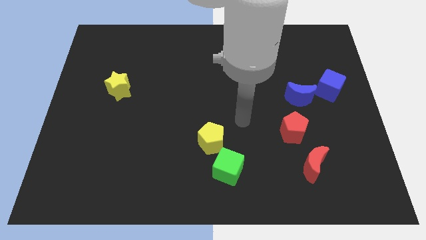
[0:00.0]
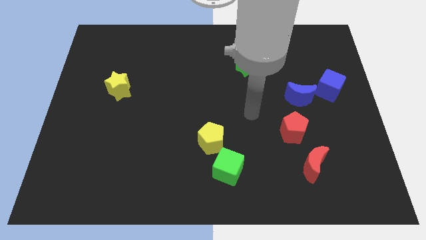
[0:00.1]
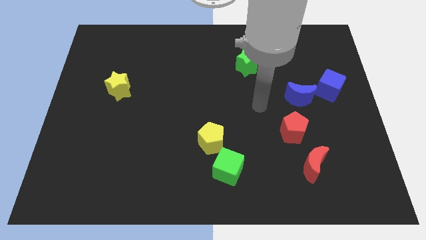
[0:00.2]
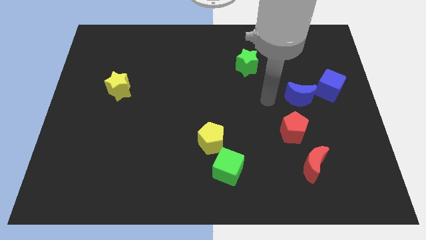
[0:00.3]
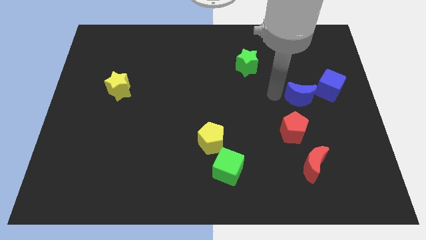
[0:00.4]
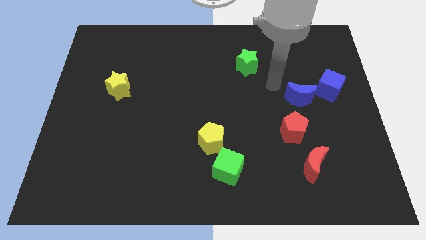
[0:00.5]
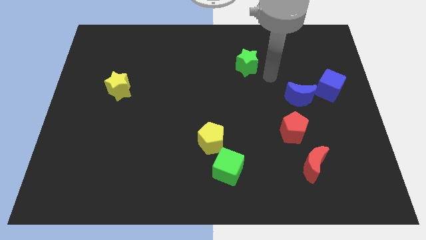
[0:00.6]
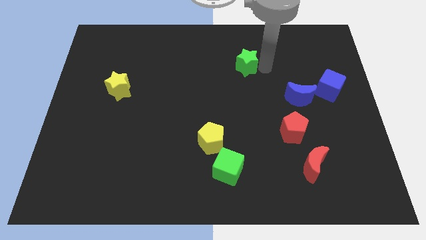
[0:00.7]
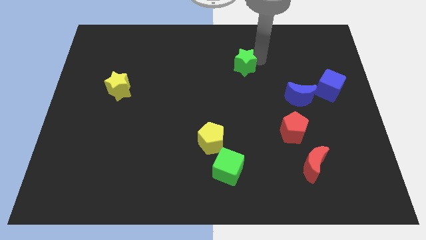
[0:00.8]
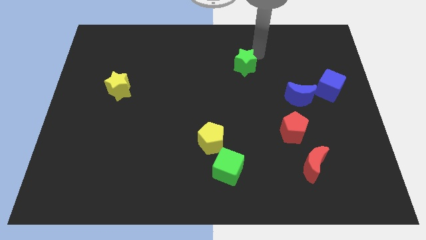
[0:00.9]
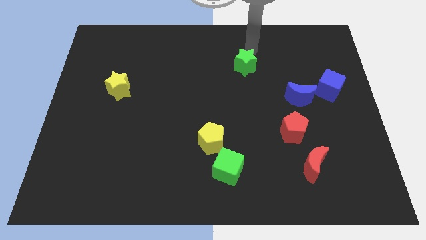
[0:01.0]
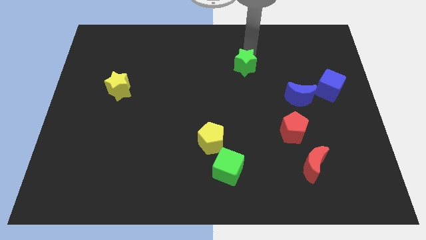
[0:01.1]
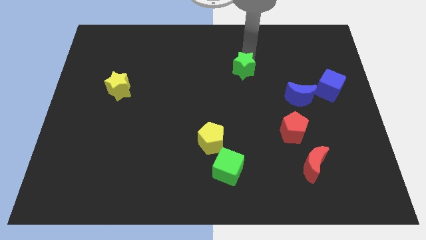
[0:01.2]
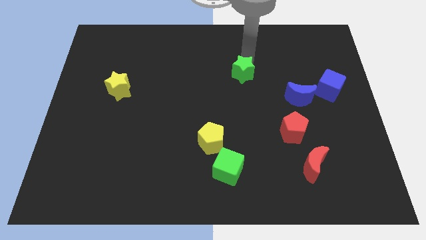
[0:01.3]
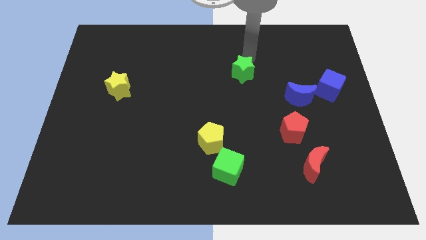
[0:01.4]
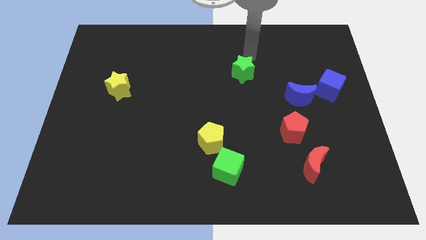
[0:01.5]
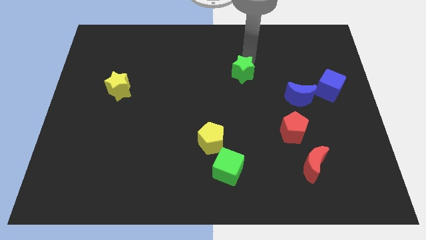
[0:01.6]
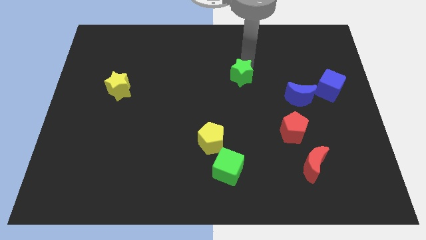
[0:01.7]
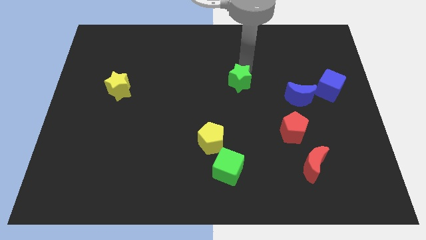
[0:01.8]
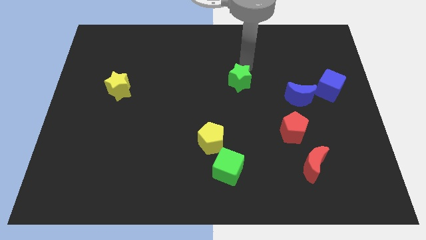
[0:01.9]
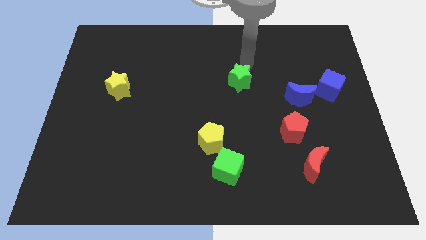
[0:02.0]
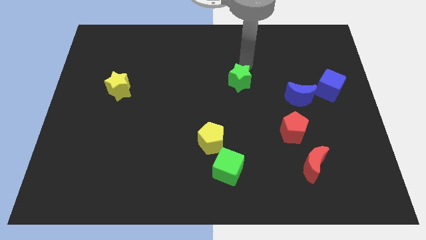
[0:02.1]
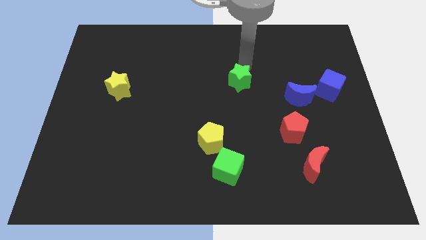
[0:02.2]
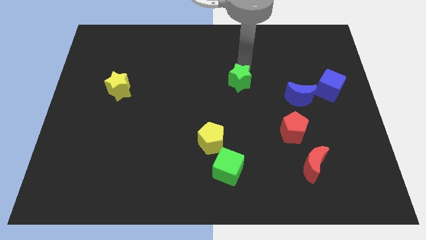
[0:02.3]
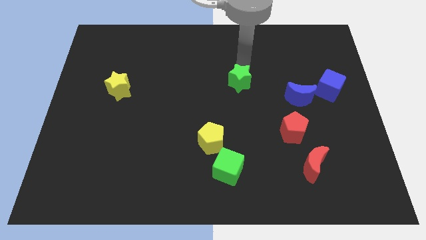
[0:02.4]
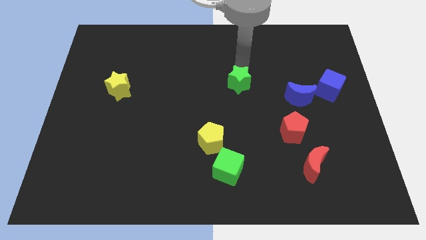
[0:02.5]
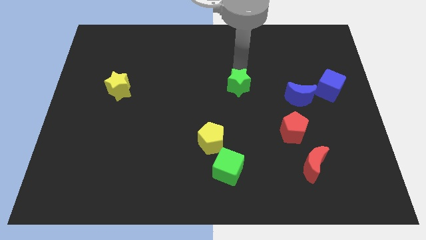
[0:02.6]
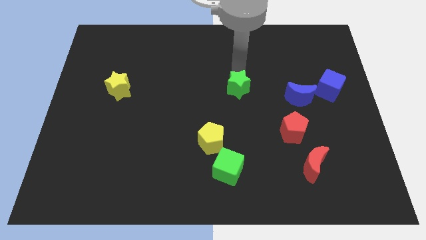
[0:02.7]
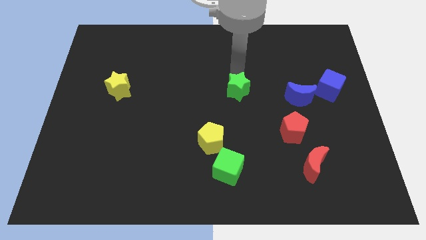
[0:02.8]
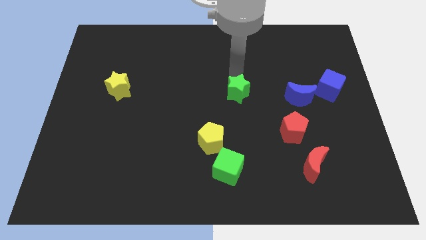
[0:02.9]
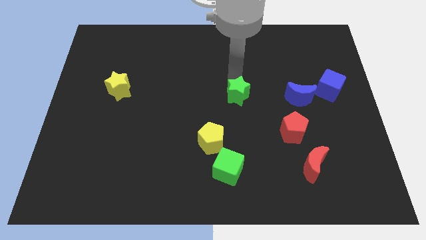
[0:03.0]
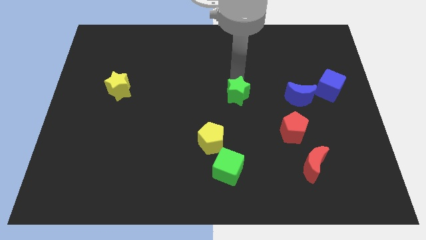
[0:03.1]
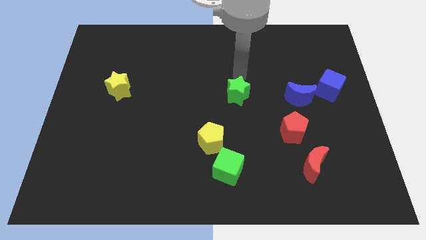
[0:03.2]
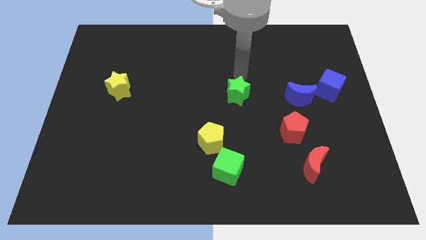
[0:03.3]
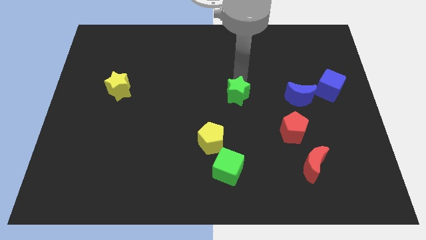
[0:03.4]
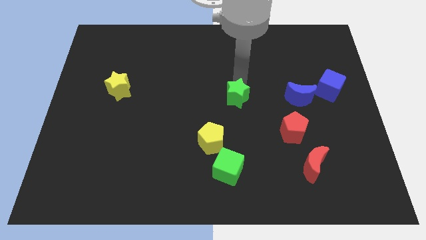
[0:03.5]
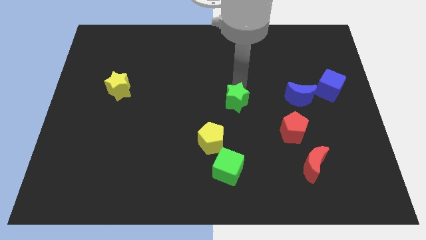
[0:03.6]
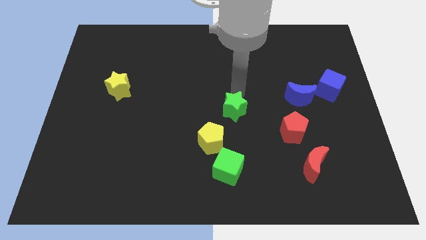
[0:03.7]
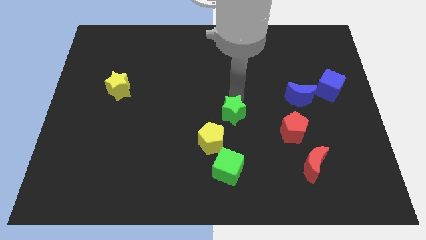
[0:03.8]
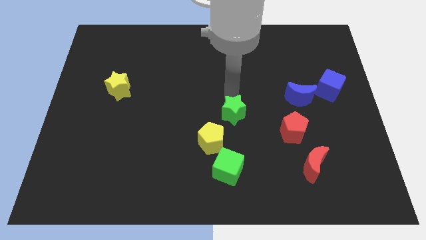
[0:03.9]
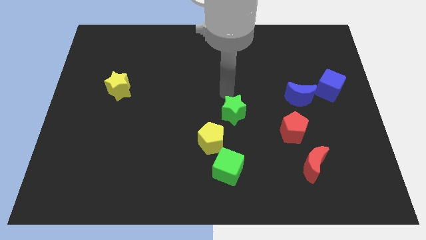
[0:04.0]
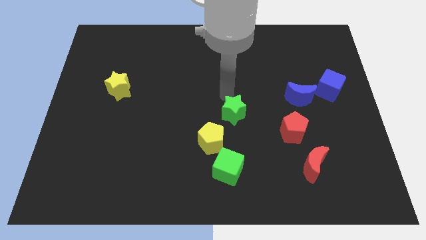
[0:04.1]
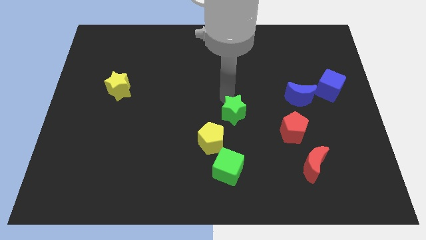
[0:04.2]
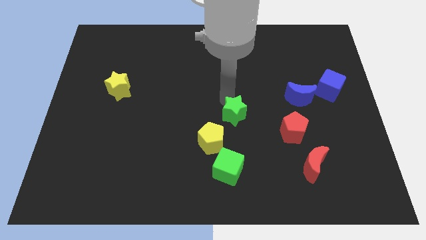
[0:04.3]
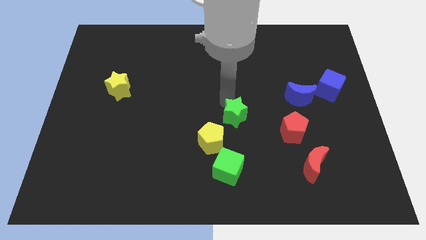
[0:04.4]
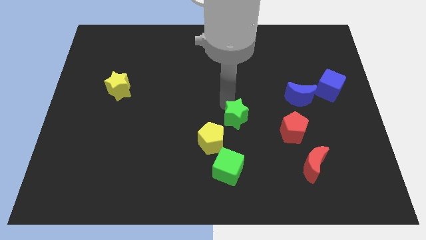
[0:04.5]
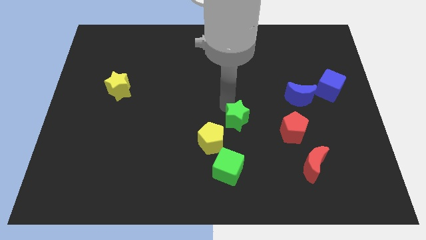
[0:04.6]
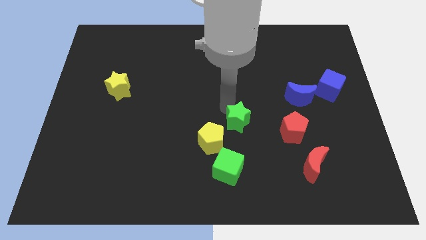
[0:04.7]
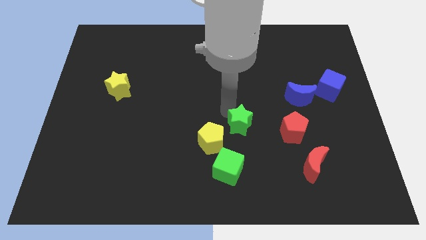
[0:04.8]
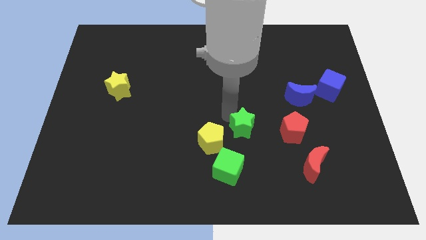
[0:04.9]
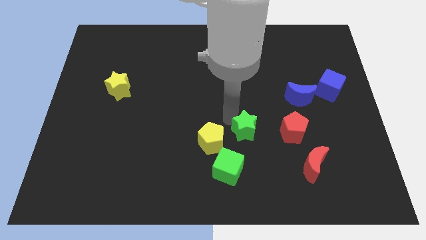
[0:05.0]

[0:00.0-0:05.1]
slide the green star downwards

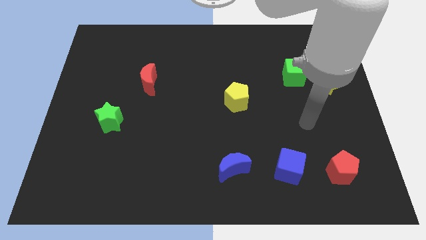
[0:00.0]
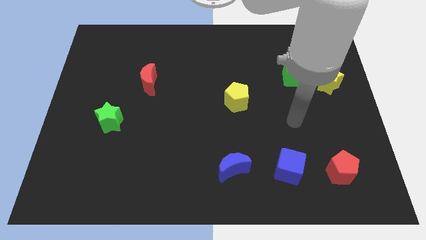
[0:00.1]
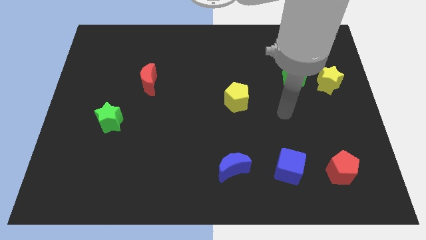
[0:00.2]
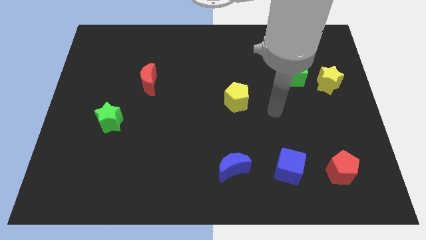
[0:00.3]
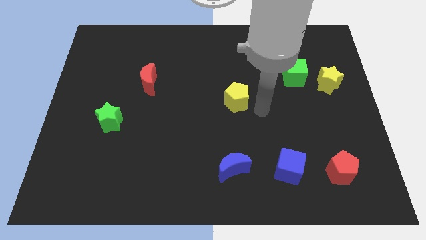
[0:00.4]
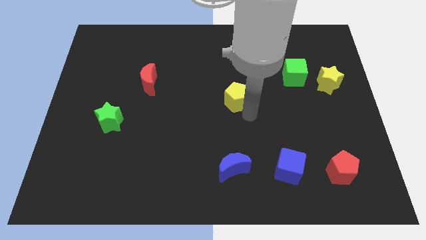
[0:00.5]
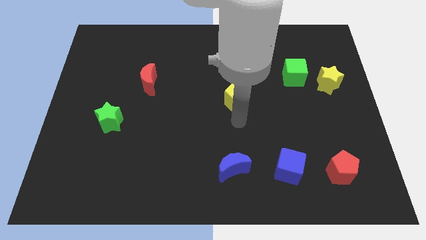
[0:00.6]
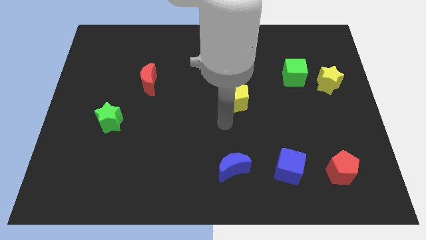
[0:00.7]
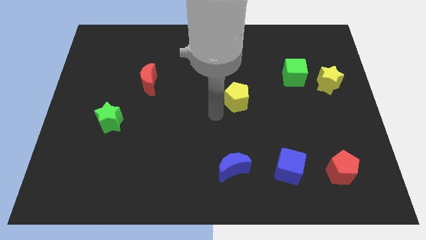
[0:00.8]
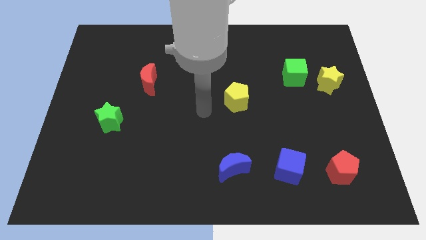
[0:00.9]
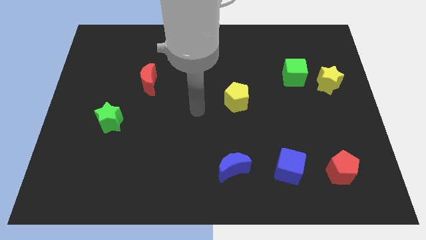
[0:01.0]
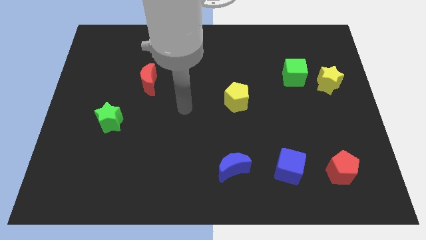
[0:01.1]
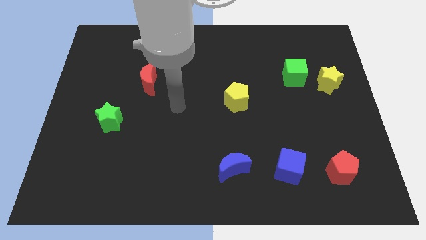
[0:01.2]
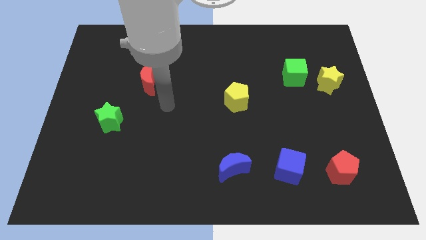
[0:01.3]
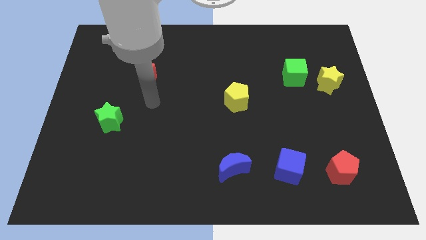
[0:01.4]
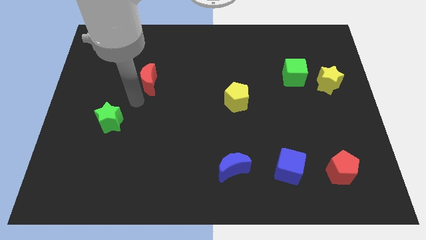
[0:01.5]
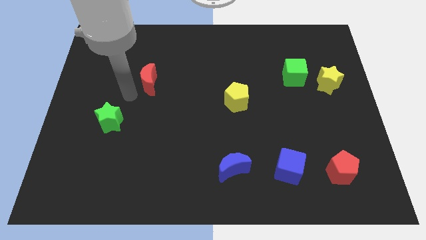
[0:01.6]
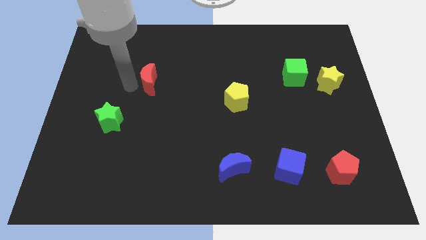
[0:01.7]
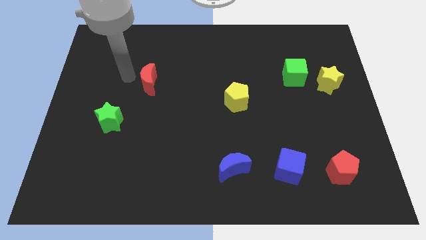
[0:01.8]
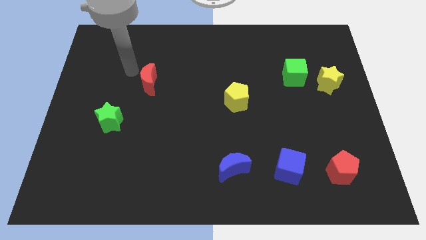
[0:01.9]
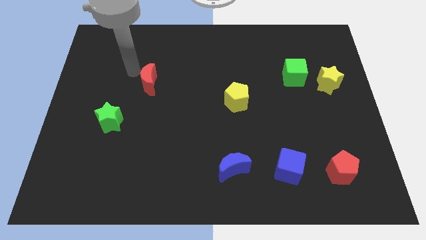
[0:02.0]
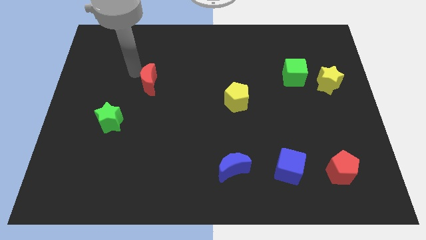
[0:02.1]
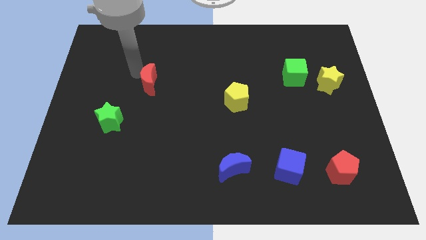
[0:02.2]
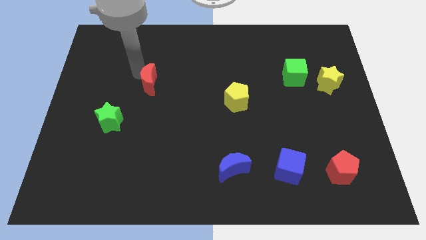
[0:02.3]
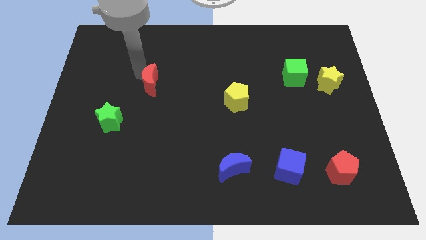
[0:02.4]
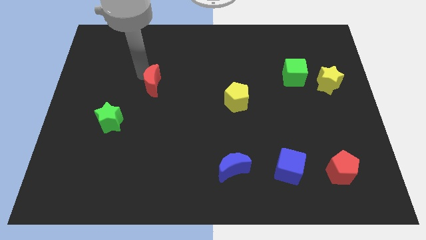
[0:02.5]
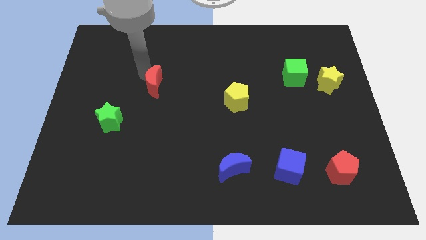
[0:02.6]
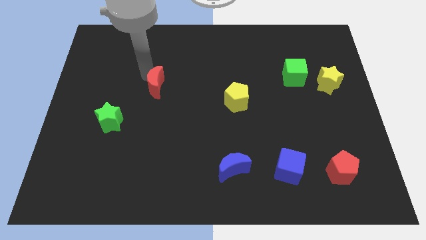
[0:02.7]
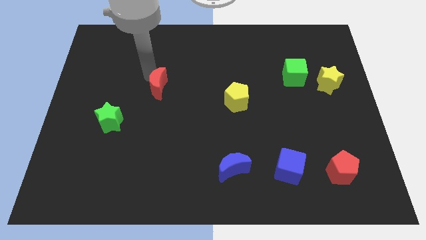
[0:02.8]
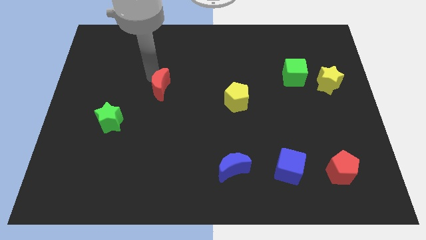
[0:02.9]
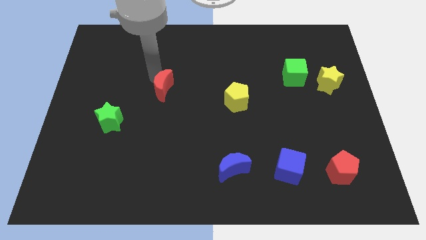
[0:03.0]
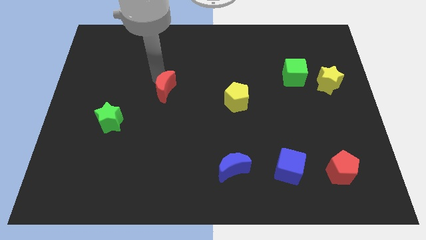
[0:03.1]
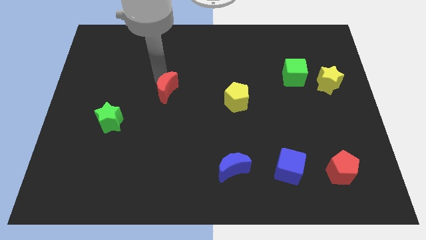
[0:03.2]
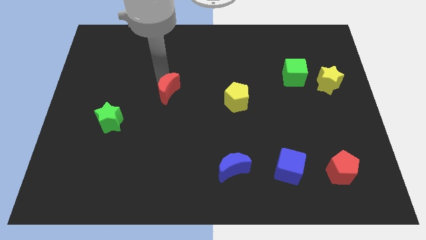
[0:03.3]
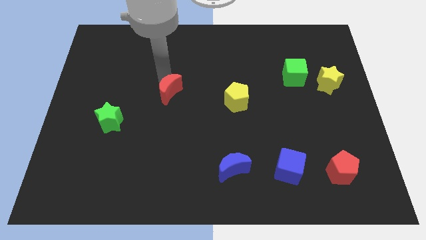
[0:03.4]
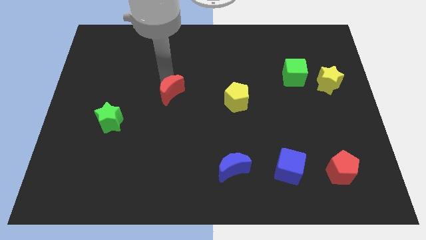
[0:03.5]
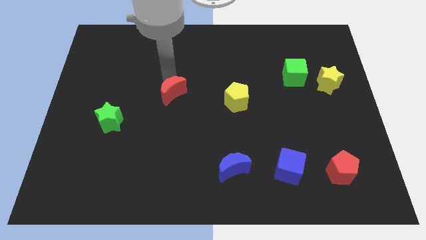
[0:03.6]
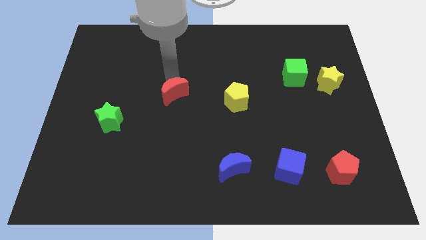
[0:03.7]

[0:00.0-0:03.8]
move the red moon somewhat down and to the right diagonally
